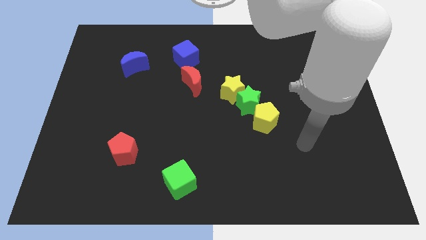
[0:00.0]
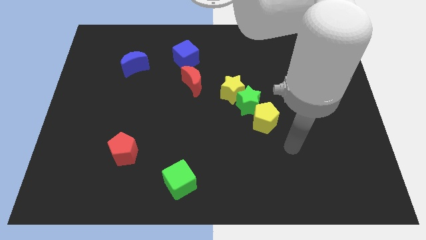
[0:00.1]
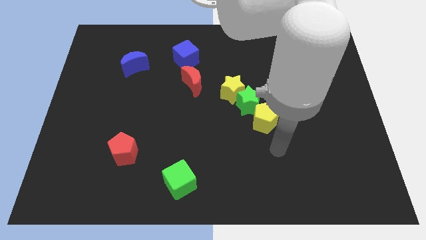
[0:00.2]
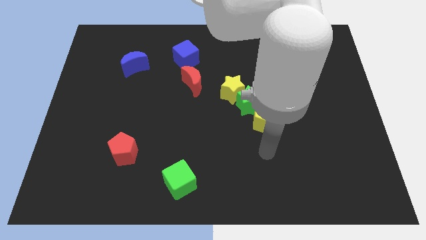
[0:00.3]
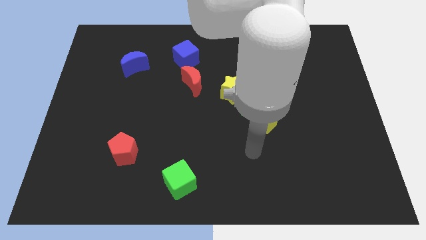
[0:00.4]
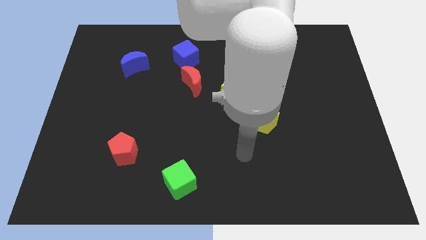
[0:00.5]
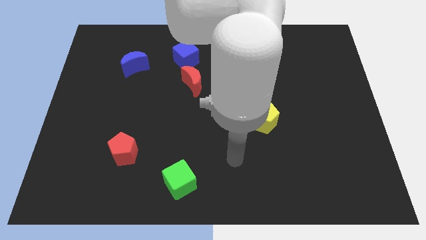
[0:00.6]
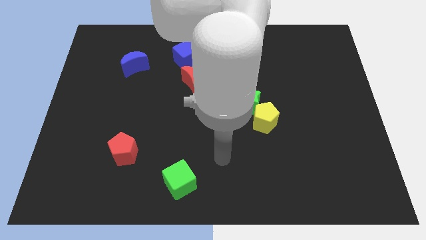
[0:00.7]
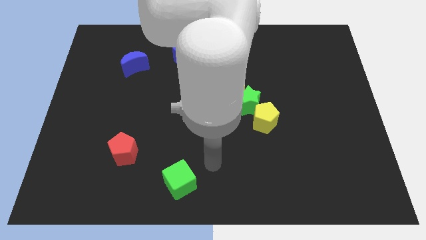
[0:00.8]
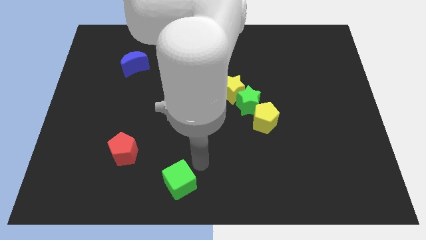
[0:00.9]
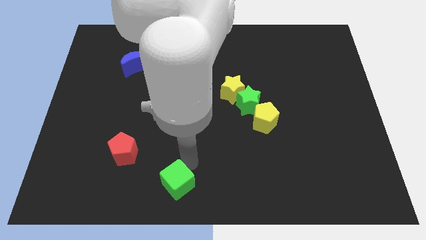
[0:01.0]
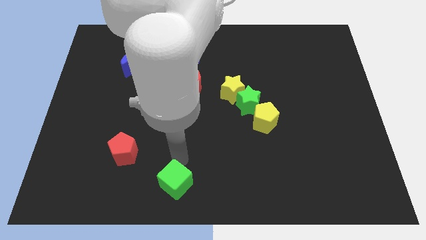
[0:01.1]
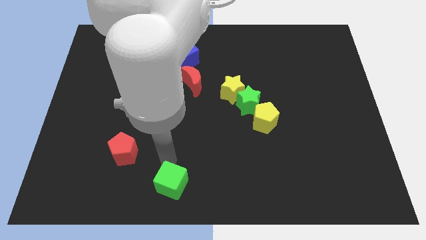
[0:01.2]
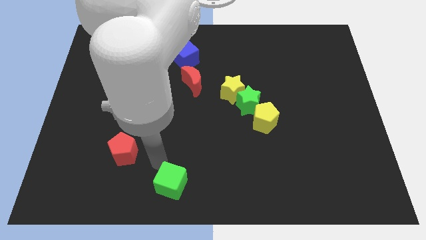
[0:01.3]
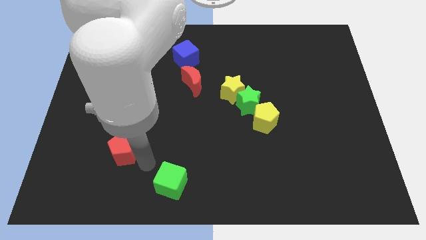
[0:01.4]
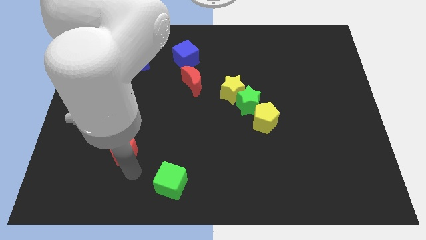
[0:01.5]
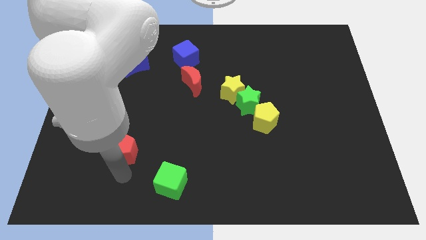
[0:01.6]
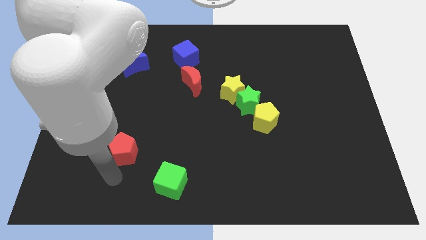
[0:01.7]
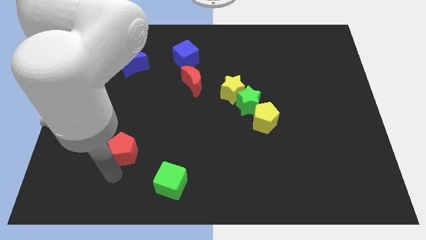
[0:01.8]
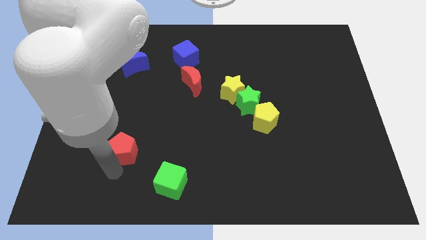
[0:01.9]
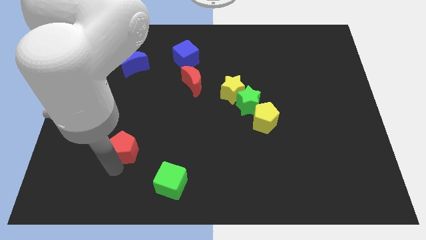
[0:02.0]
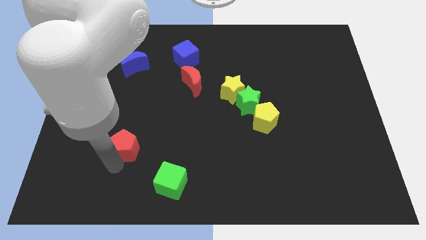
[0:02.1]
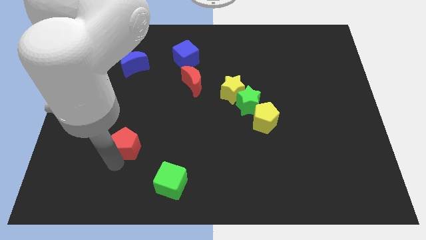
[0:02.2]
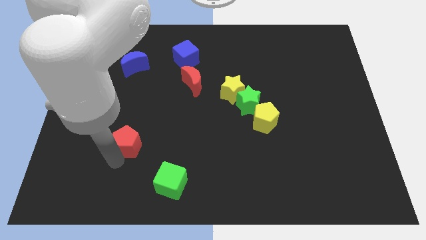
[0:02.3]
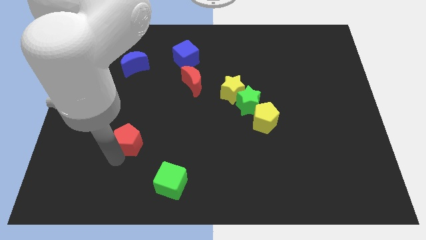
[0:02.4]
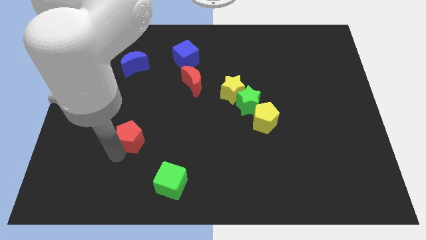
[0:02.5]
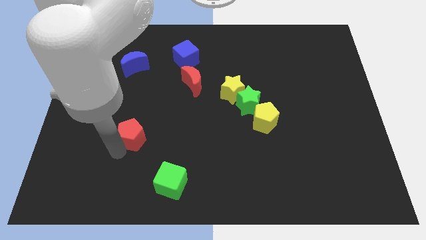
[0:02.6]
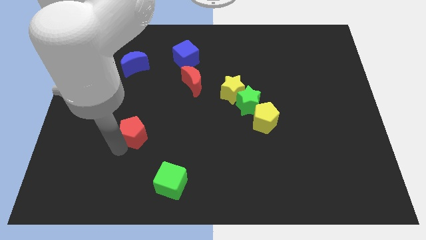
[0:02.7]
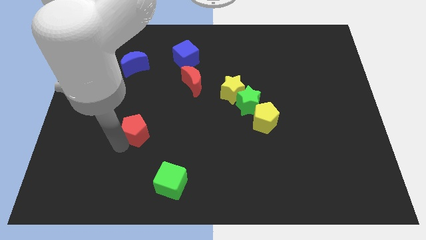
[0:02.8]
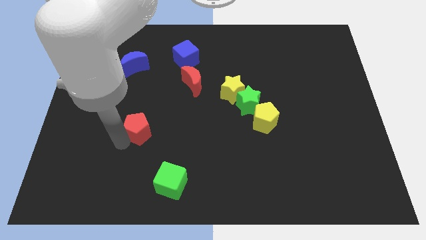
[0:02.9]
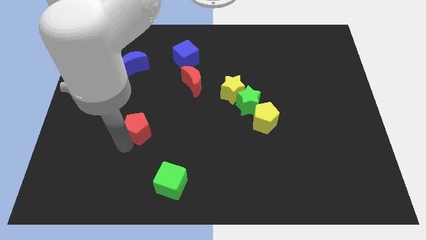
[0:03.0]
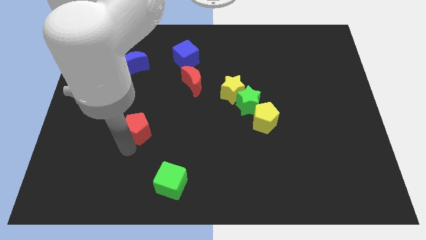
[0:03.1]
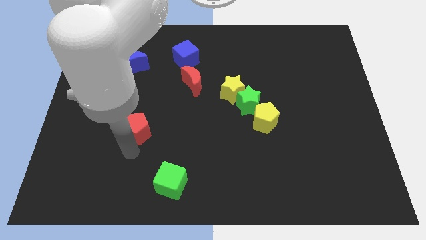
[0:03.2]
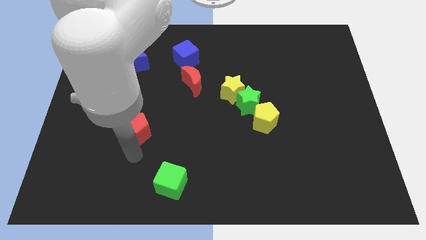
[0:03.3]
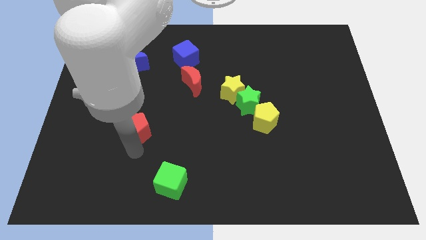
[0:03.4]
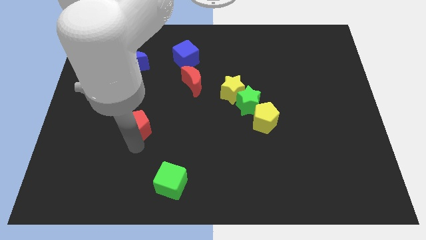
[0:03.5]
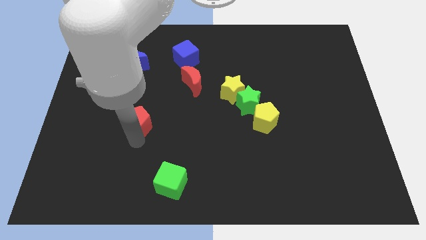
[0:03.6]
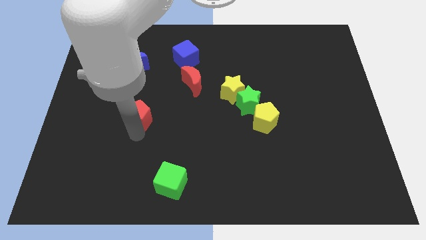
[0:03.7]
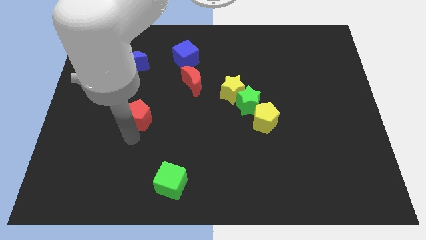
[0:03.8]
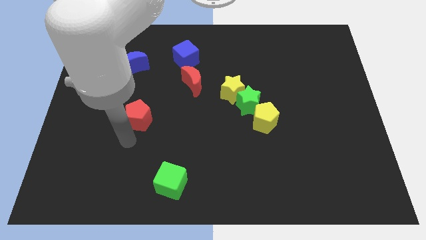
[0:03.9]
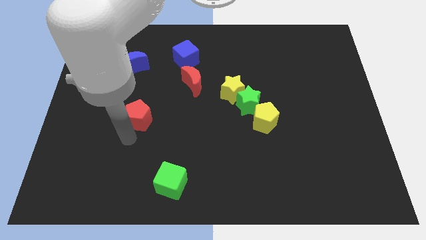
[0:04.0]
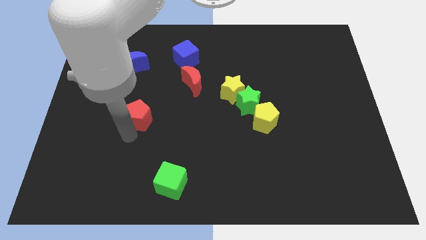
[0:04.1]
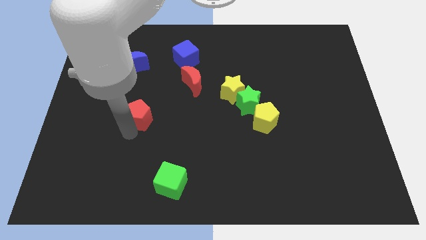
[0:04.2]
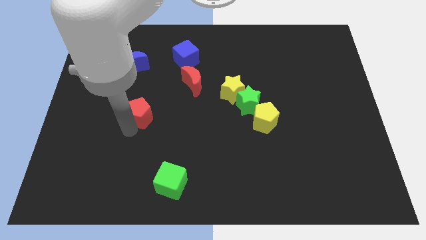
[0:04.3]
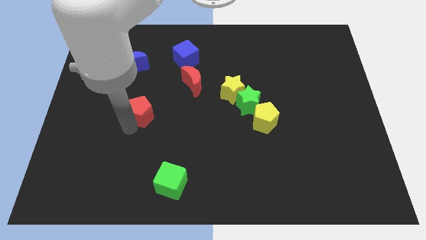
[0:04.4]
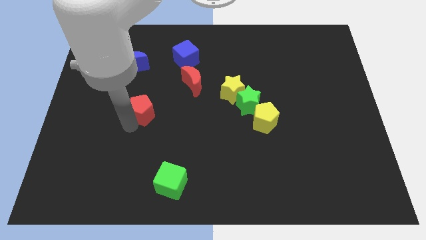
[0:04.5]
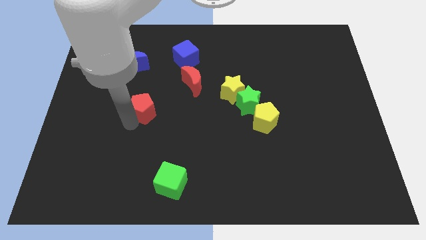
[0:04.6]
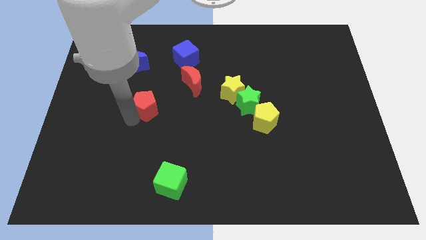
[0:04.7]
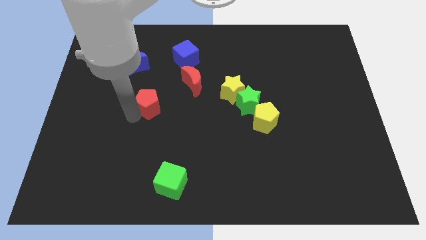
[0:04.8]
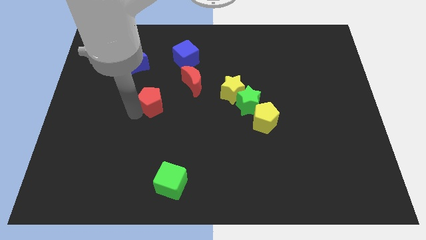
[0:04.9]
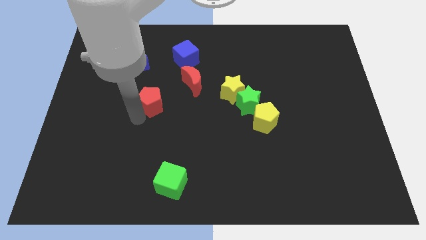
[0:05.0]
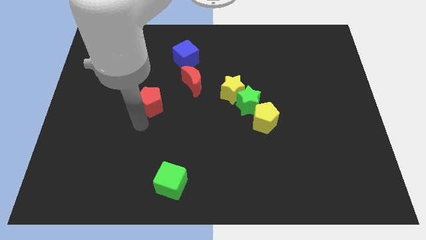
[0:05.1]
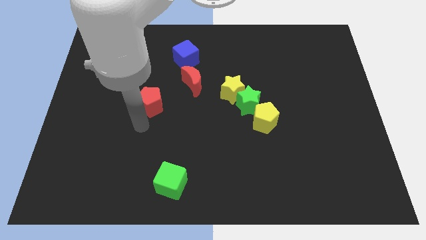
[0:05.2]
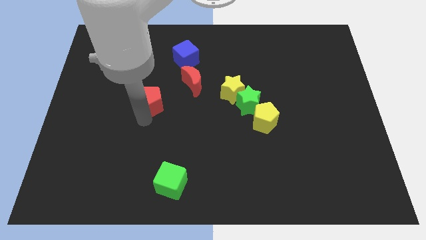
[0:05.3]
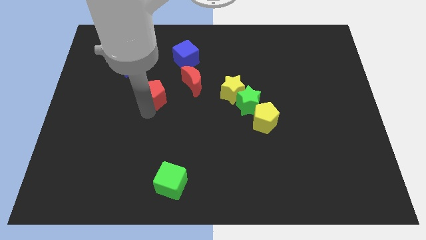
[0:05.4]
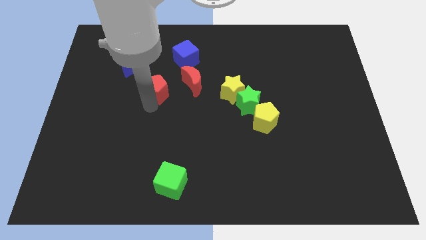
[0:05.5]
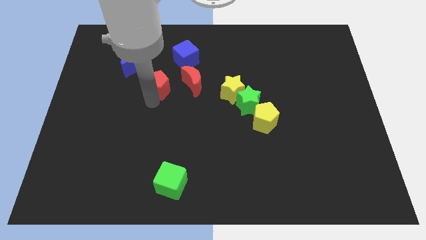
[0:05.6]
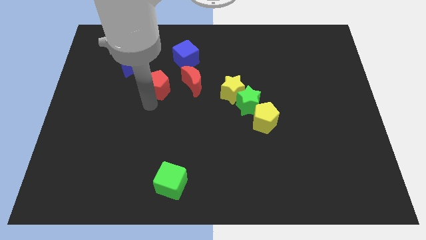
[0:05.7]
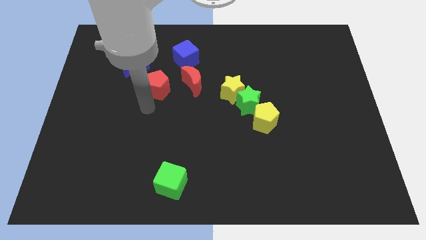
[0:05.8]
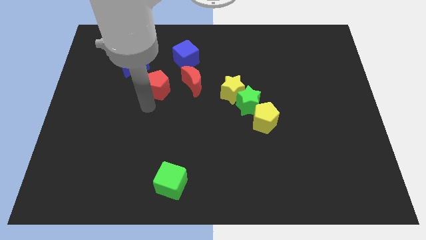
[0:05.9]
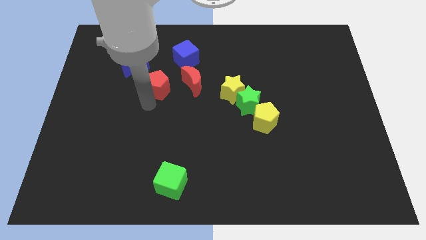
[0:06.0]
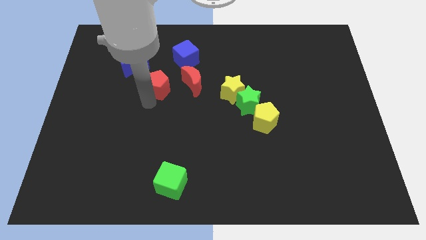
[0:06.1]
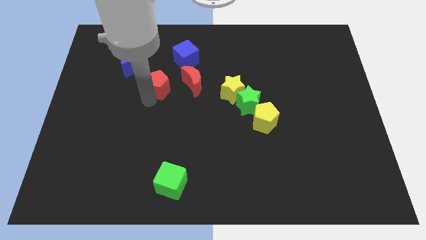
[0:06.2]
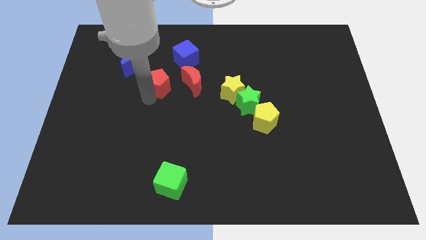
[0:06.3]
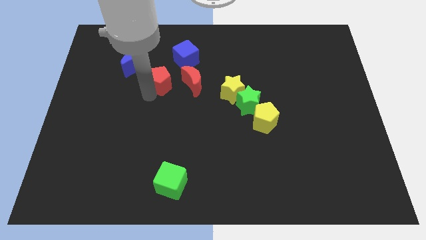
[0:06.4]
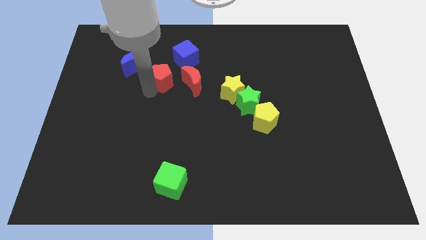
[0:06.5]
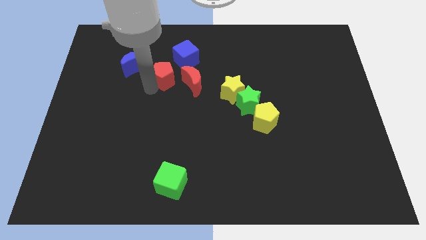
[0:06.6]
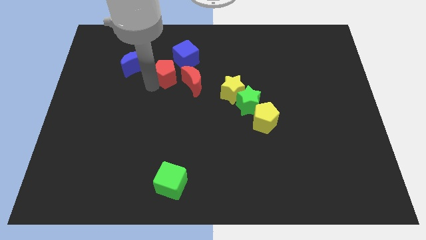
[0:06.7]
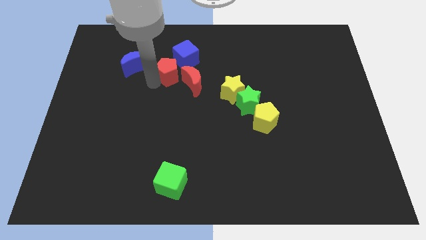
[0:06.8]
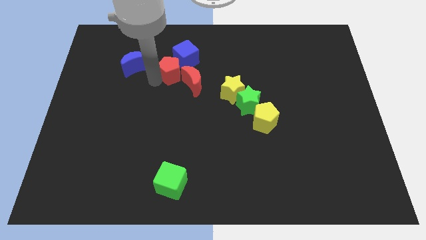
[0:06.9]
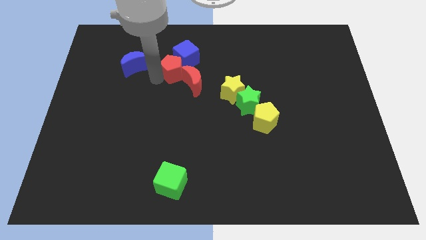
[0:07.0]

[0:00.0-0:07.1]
put the red pentagon close to the blue cube

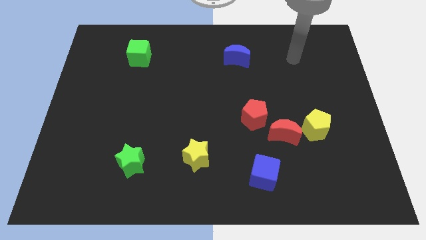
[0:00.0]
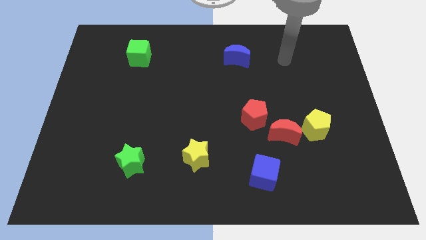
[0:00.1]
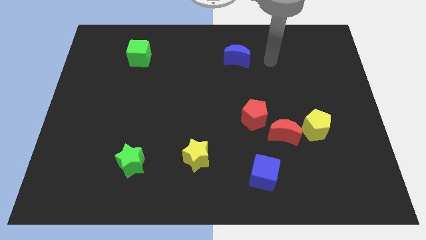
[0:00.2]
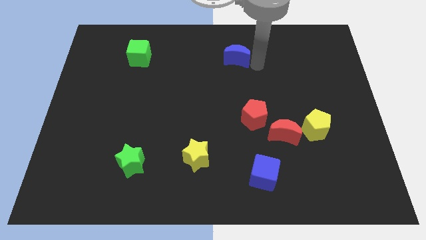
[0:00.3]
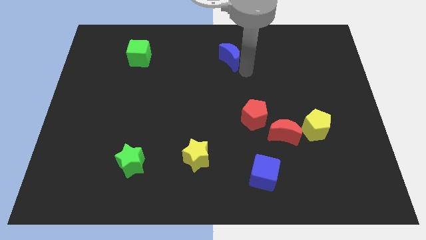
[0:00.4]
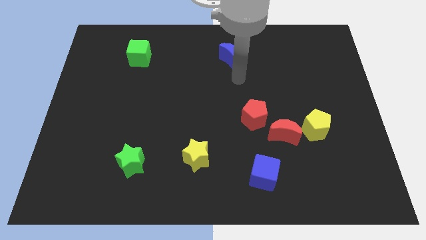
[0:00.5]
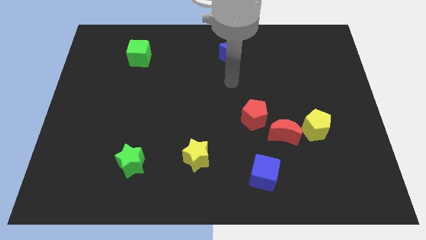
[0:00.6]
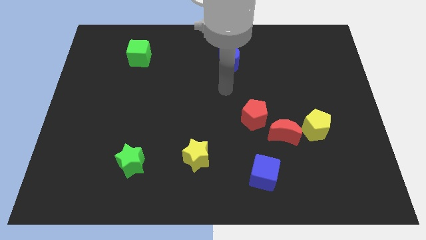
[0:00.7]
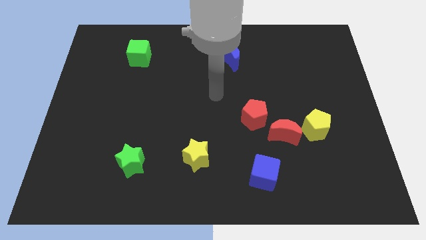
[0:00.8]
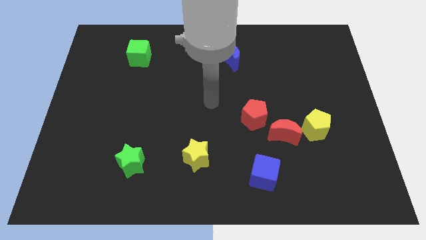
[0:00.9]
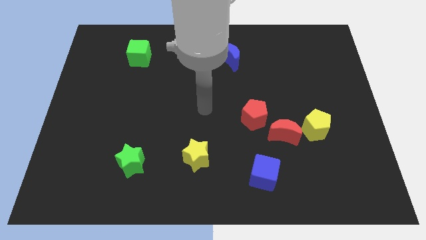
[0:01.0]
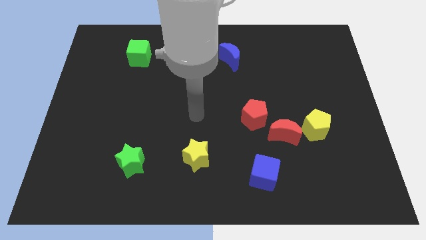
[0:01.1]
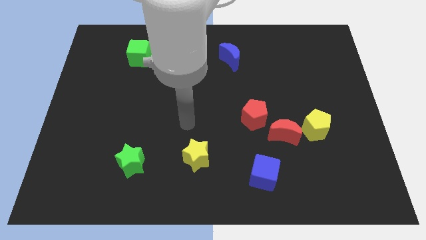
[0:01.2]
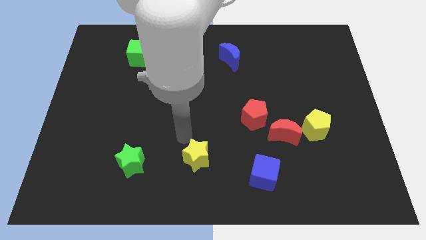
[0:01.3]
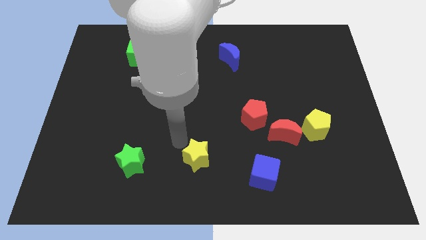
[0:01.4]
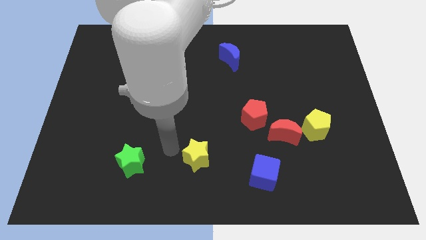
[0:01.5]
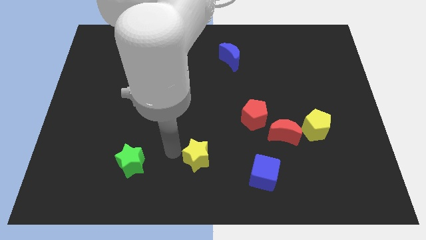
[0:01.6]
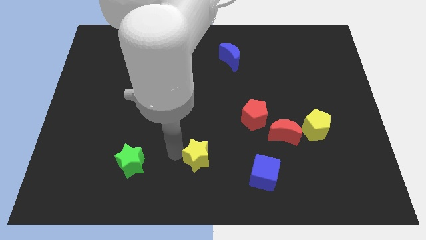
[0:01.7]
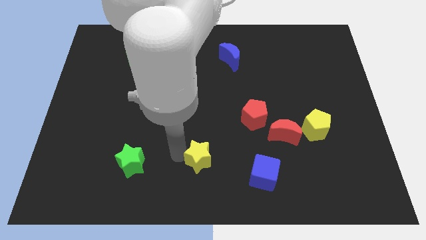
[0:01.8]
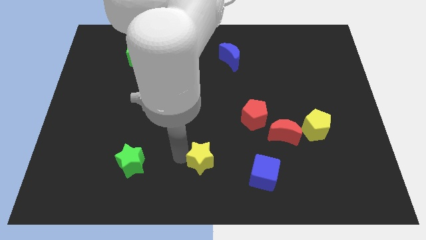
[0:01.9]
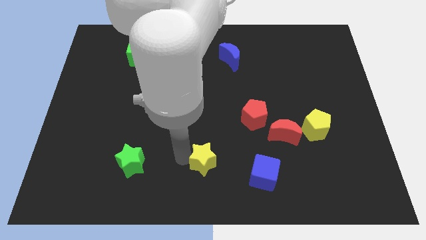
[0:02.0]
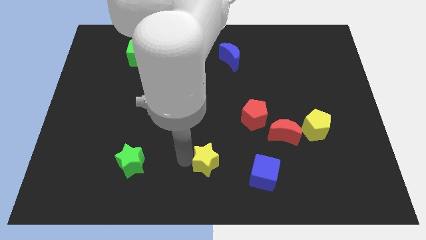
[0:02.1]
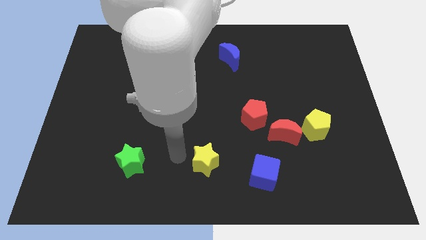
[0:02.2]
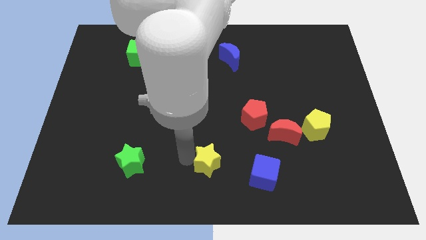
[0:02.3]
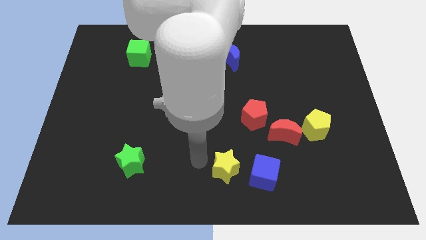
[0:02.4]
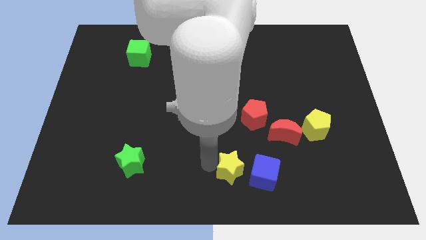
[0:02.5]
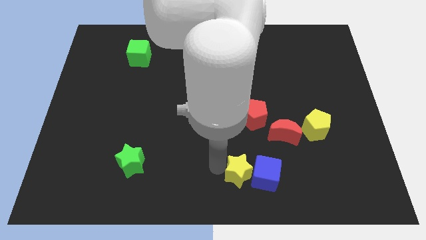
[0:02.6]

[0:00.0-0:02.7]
slide the yellow star to the blue cube
